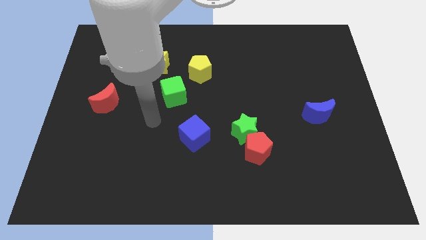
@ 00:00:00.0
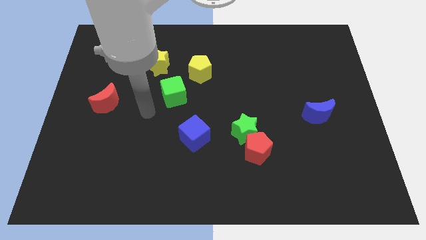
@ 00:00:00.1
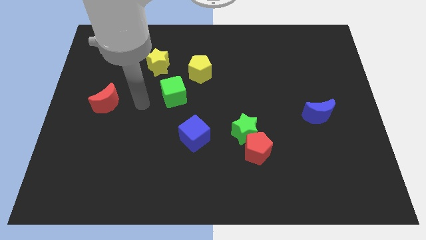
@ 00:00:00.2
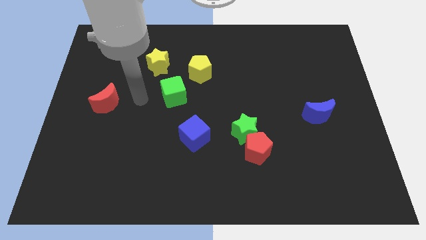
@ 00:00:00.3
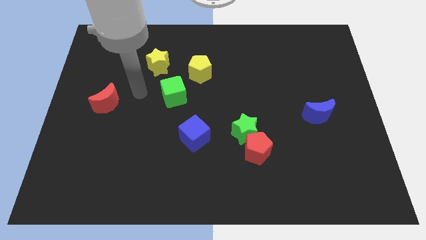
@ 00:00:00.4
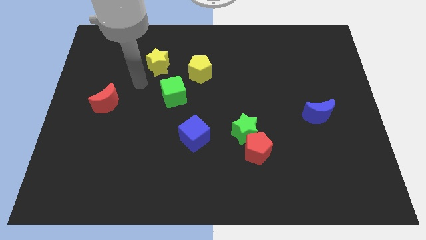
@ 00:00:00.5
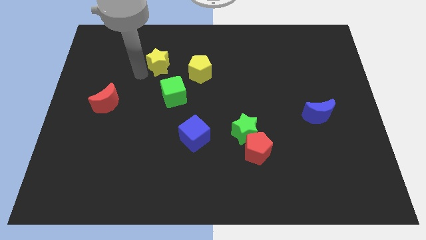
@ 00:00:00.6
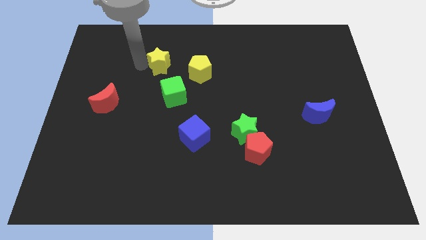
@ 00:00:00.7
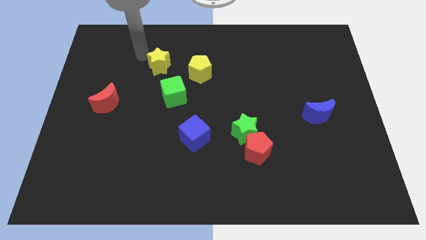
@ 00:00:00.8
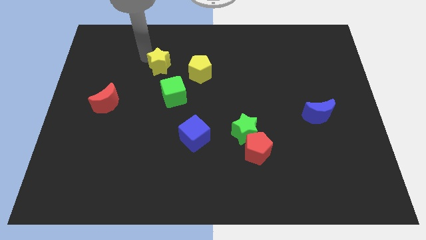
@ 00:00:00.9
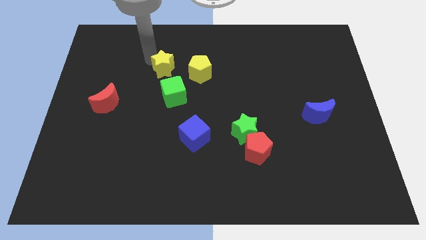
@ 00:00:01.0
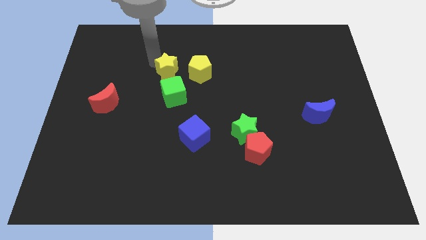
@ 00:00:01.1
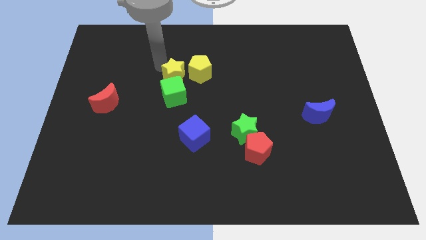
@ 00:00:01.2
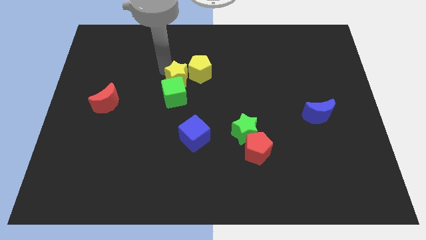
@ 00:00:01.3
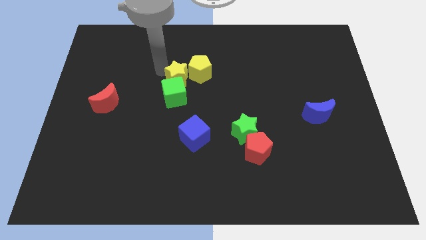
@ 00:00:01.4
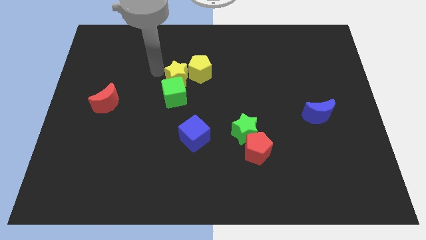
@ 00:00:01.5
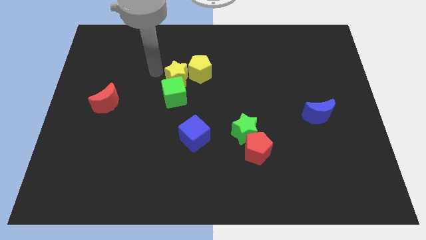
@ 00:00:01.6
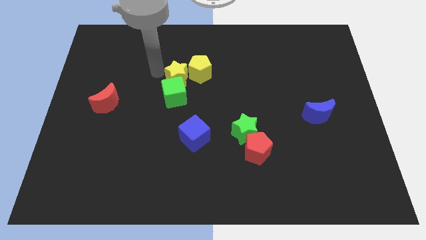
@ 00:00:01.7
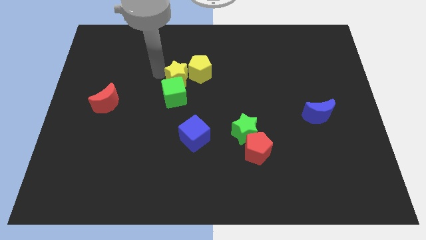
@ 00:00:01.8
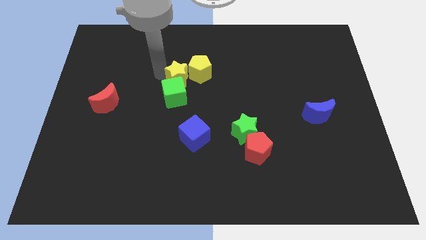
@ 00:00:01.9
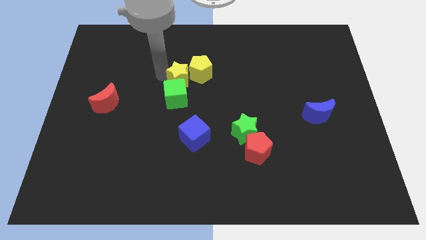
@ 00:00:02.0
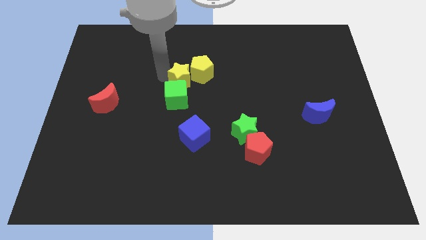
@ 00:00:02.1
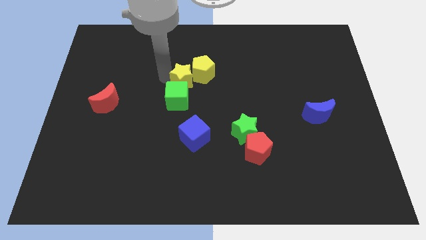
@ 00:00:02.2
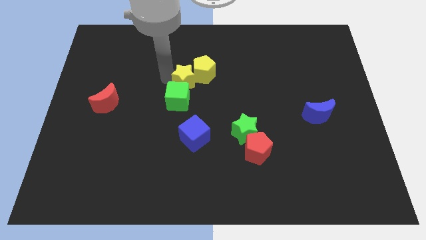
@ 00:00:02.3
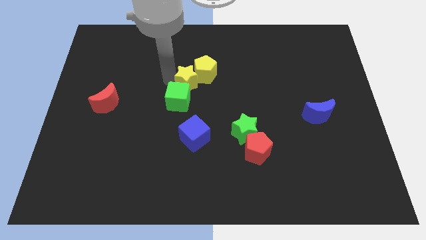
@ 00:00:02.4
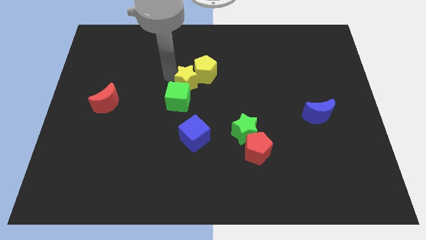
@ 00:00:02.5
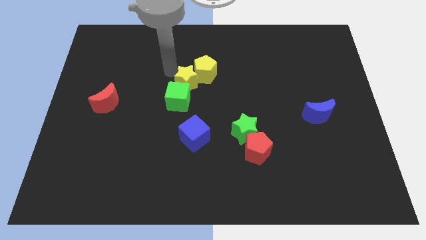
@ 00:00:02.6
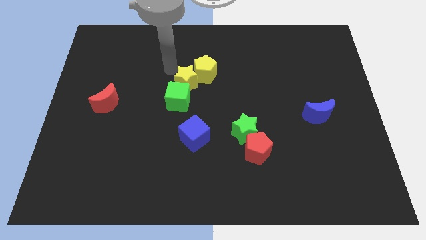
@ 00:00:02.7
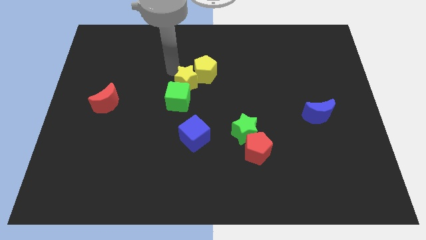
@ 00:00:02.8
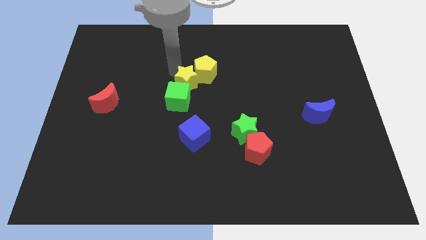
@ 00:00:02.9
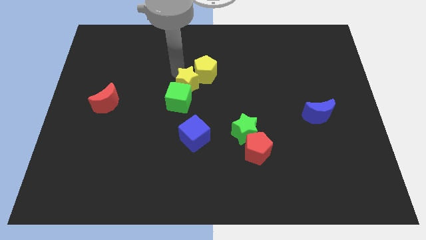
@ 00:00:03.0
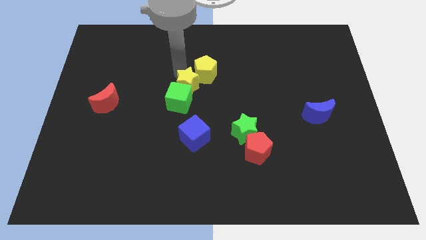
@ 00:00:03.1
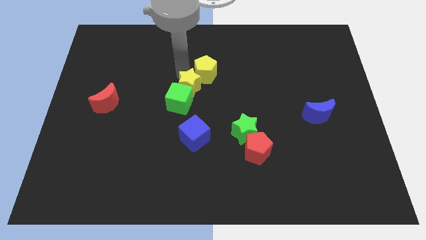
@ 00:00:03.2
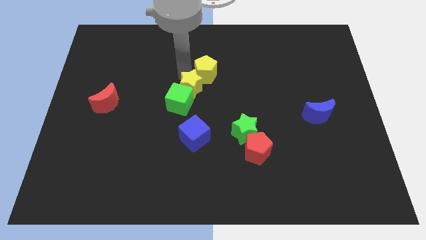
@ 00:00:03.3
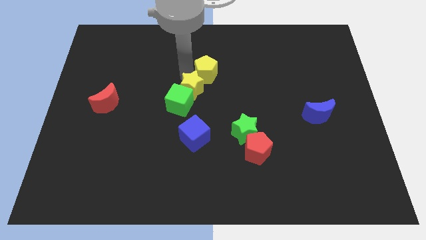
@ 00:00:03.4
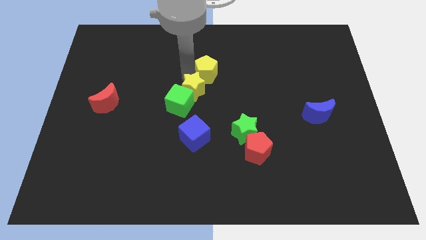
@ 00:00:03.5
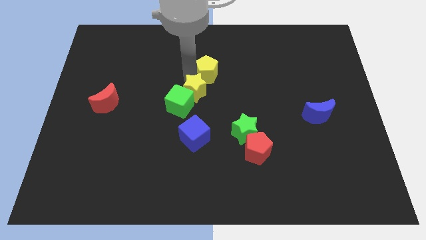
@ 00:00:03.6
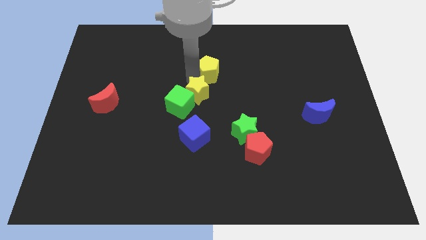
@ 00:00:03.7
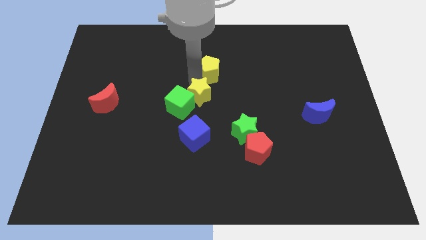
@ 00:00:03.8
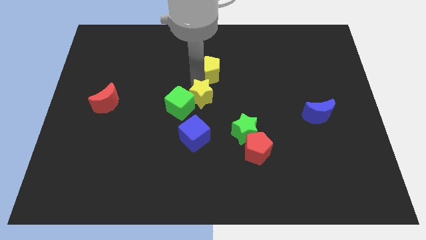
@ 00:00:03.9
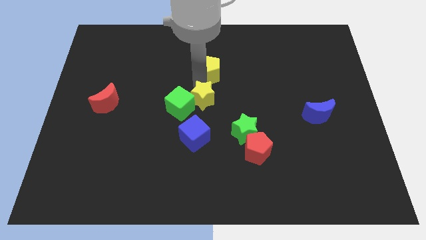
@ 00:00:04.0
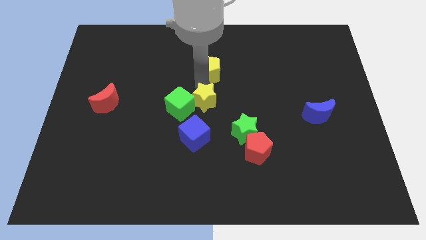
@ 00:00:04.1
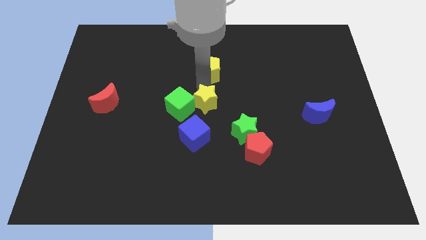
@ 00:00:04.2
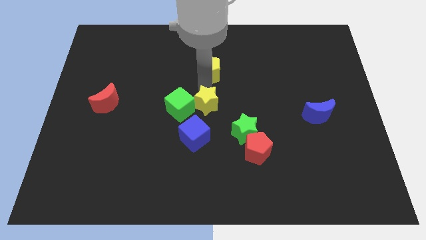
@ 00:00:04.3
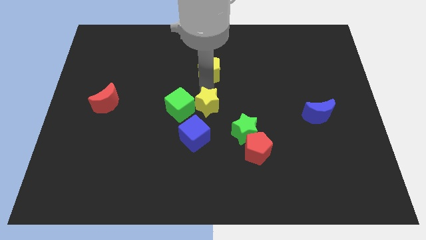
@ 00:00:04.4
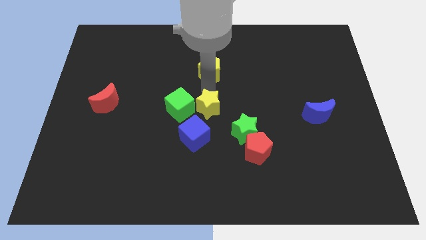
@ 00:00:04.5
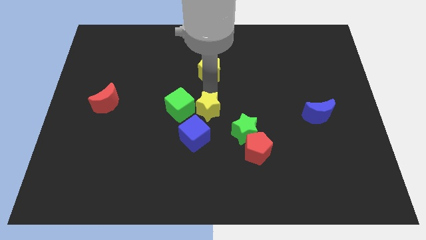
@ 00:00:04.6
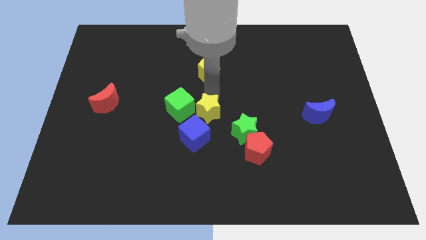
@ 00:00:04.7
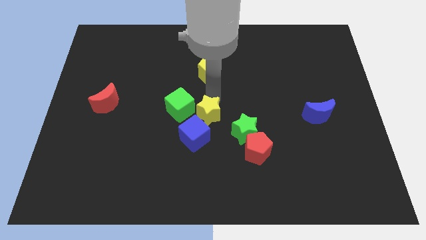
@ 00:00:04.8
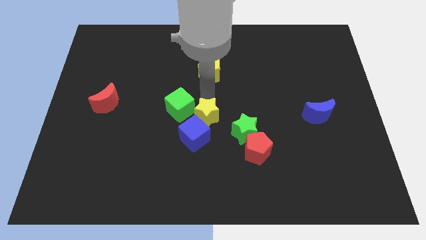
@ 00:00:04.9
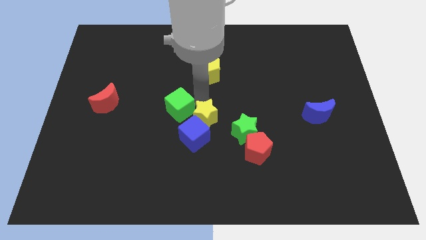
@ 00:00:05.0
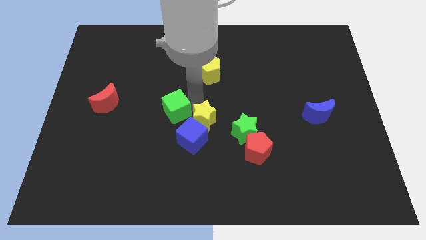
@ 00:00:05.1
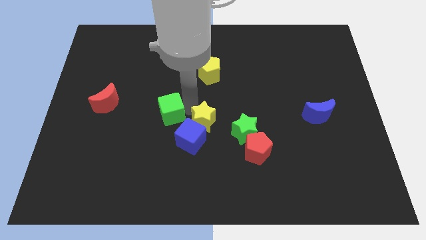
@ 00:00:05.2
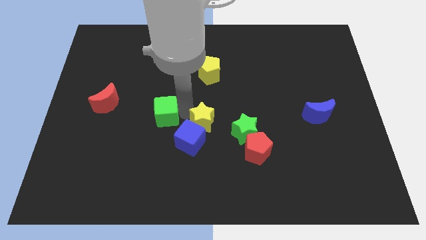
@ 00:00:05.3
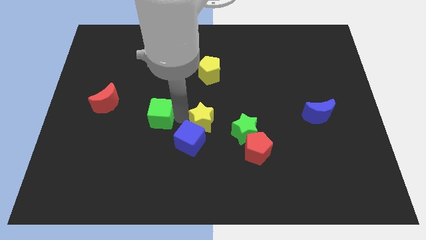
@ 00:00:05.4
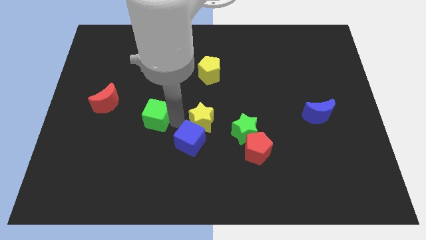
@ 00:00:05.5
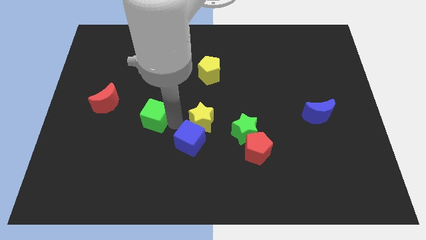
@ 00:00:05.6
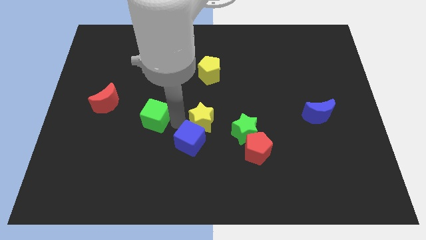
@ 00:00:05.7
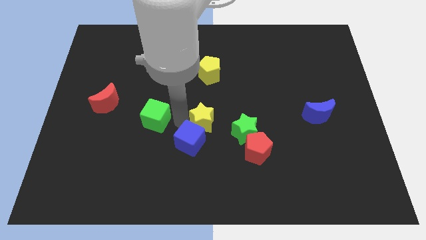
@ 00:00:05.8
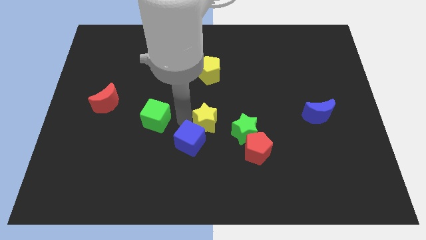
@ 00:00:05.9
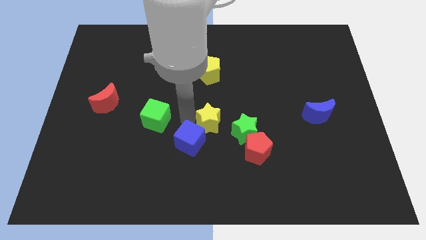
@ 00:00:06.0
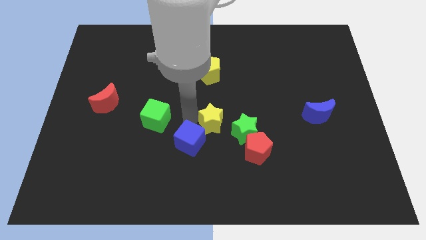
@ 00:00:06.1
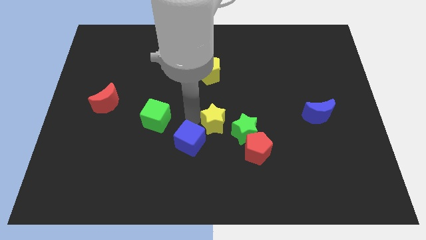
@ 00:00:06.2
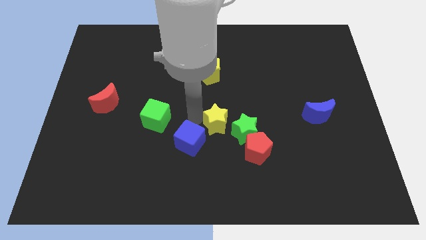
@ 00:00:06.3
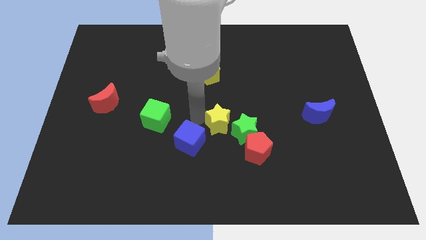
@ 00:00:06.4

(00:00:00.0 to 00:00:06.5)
move the yellow star towards the green star

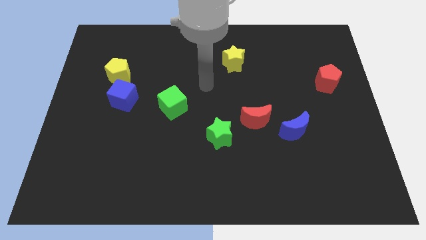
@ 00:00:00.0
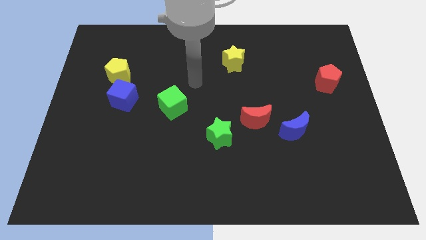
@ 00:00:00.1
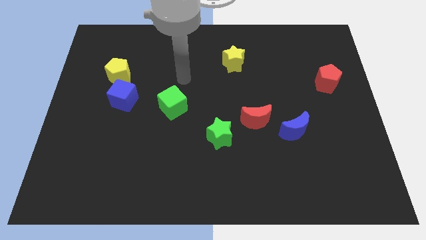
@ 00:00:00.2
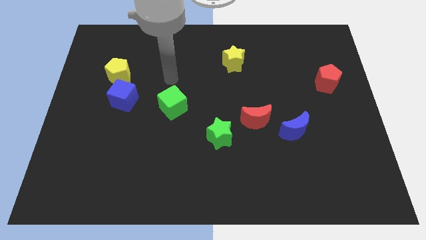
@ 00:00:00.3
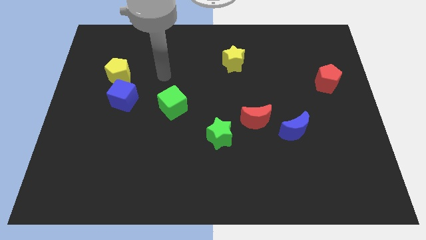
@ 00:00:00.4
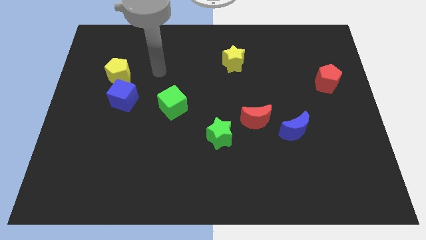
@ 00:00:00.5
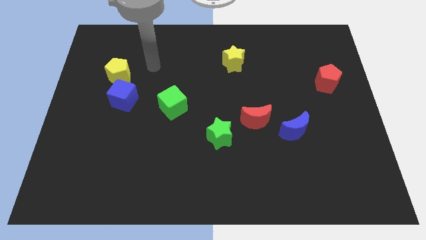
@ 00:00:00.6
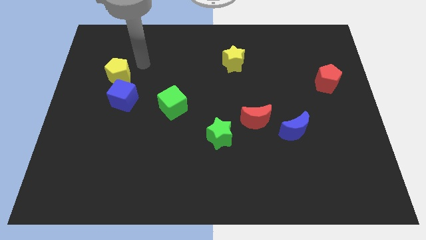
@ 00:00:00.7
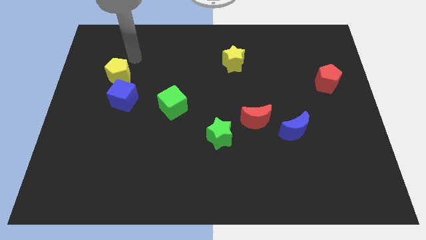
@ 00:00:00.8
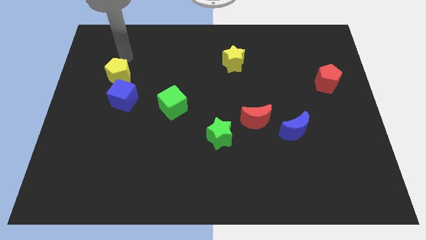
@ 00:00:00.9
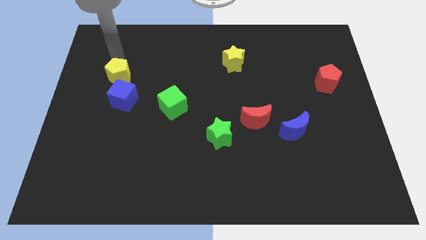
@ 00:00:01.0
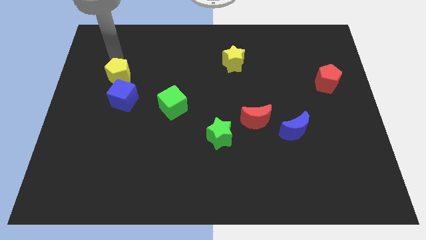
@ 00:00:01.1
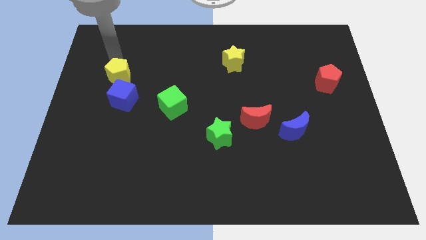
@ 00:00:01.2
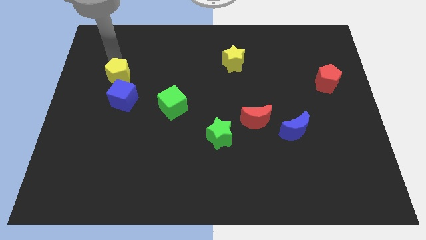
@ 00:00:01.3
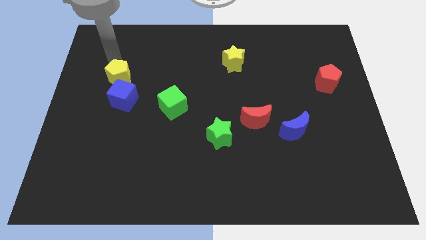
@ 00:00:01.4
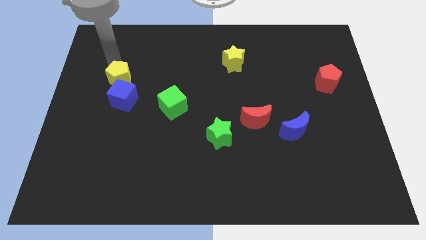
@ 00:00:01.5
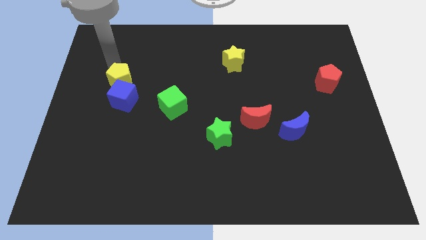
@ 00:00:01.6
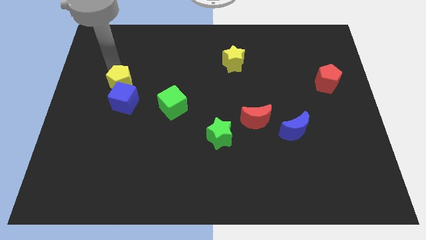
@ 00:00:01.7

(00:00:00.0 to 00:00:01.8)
push the yellow pentagon close to the blue cube
